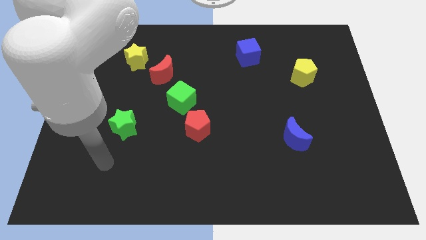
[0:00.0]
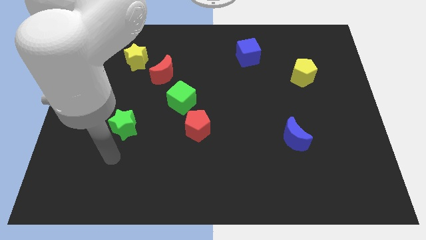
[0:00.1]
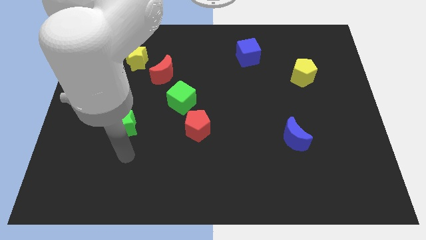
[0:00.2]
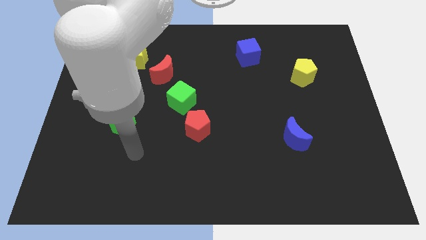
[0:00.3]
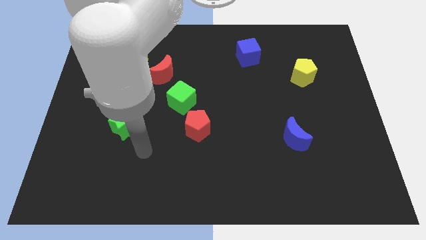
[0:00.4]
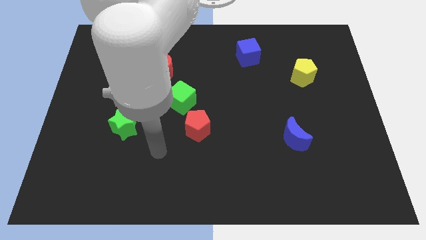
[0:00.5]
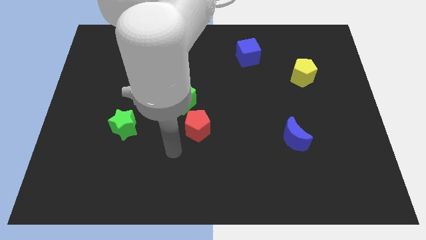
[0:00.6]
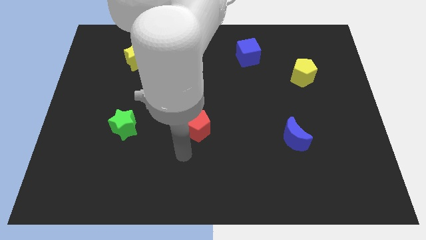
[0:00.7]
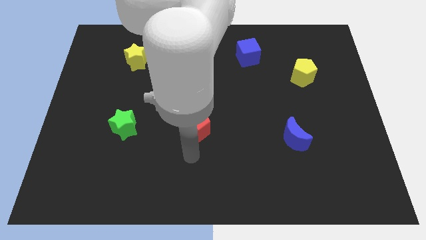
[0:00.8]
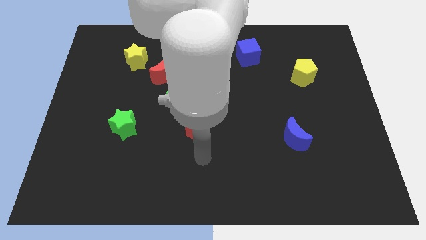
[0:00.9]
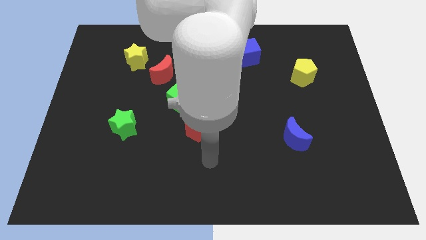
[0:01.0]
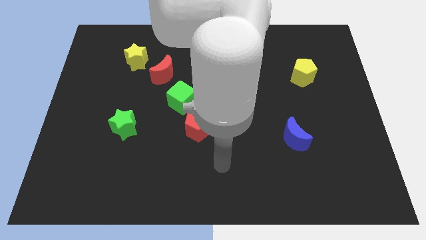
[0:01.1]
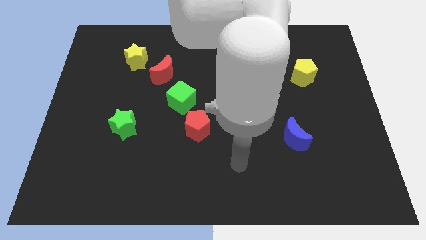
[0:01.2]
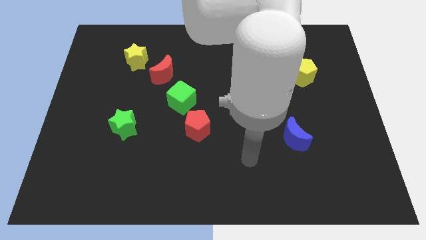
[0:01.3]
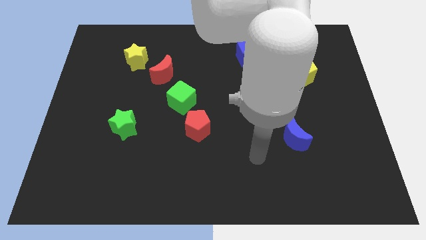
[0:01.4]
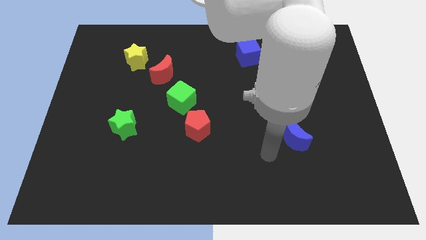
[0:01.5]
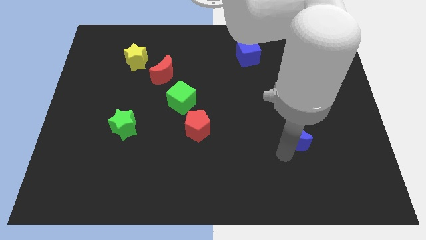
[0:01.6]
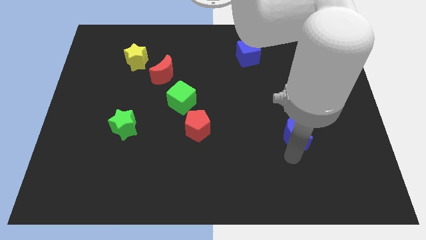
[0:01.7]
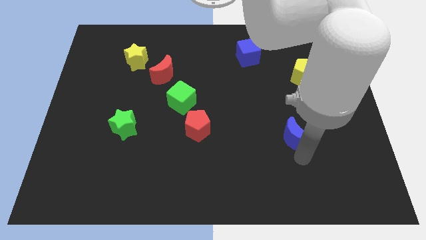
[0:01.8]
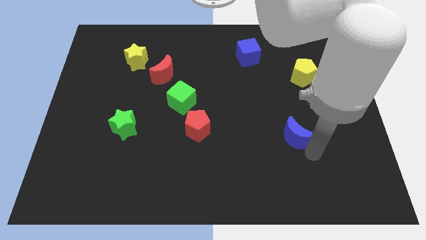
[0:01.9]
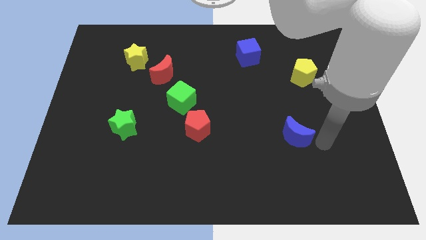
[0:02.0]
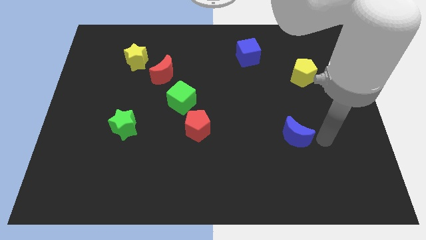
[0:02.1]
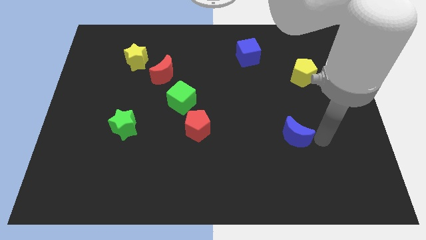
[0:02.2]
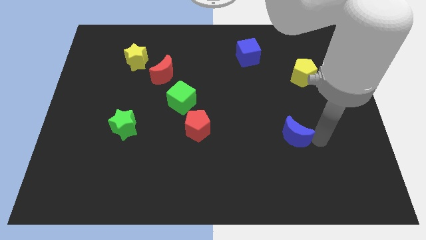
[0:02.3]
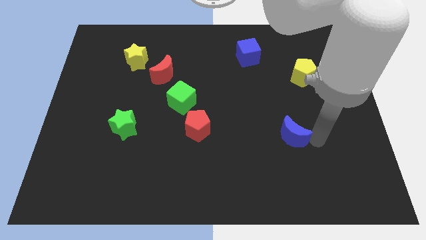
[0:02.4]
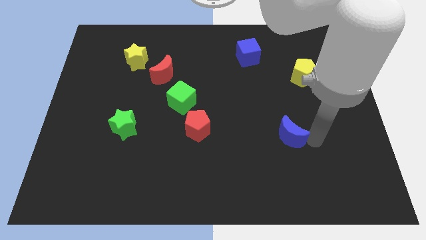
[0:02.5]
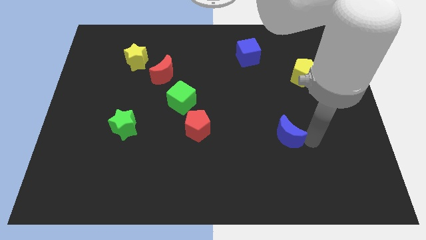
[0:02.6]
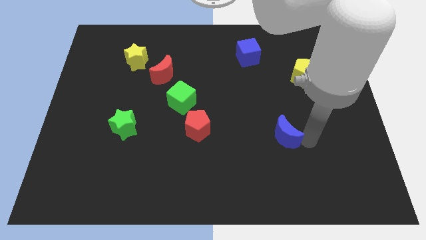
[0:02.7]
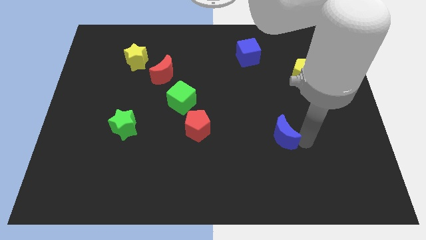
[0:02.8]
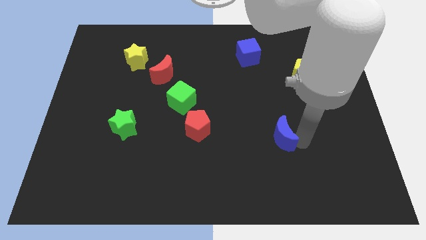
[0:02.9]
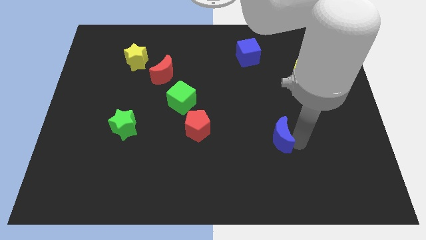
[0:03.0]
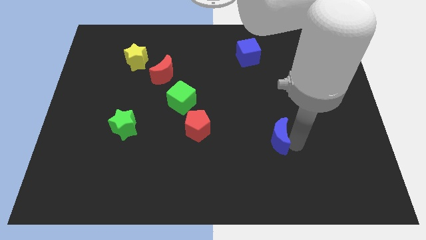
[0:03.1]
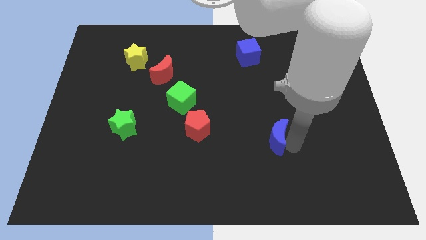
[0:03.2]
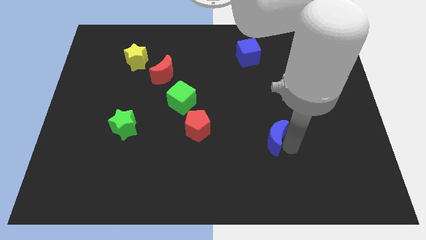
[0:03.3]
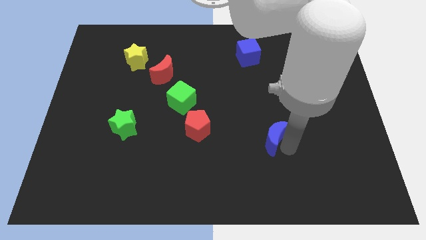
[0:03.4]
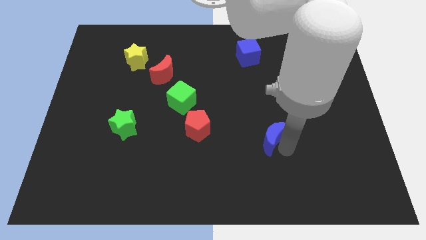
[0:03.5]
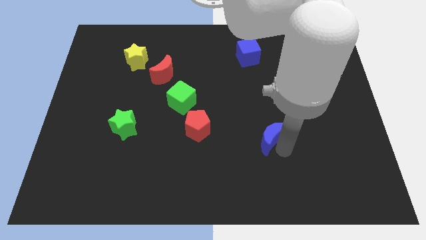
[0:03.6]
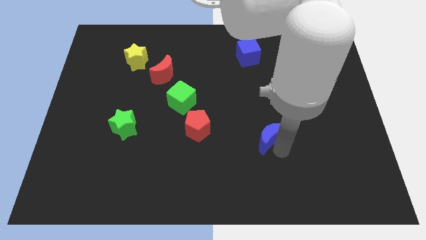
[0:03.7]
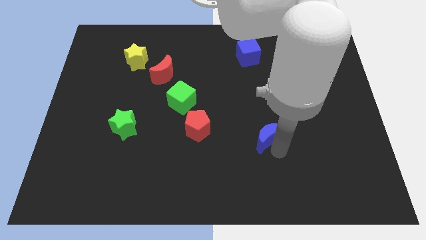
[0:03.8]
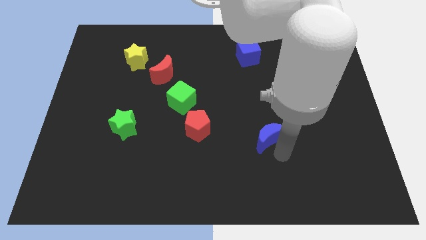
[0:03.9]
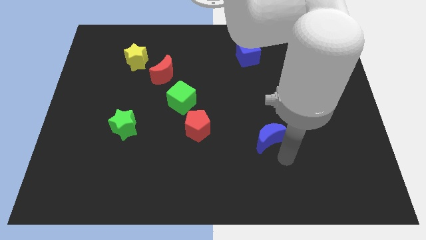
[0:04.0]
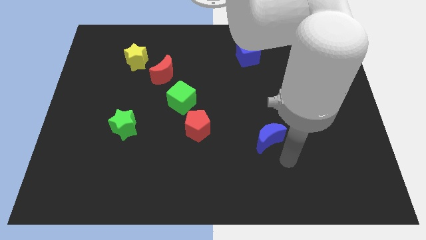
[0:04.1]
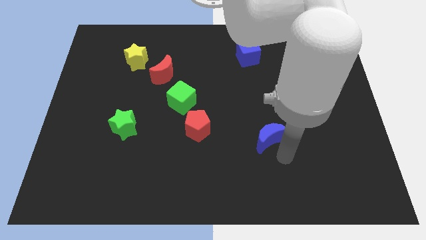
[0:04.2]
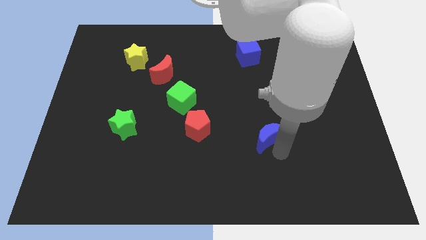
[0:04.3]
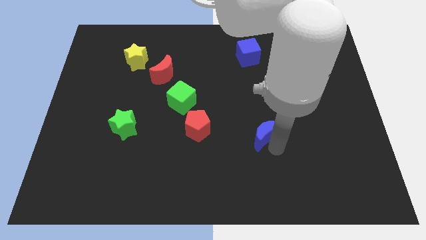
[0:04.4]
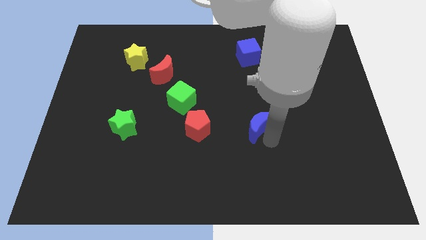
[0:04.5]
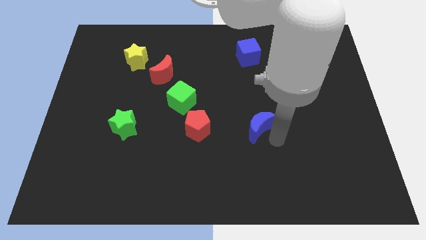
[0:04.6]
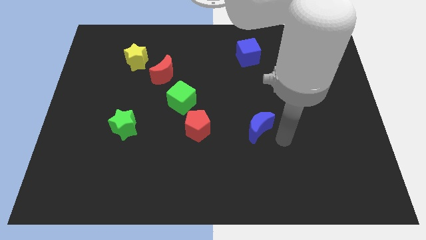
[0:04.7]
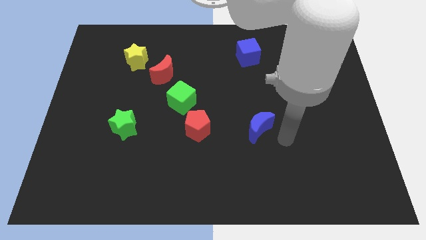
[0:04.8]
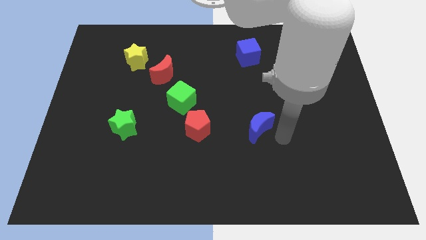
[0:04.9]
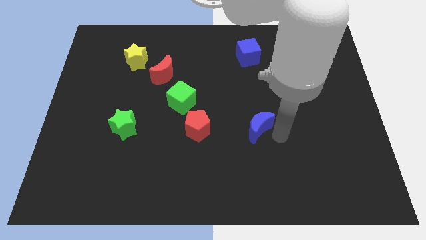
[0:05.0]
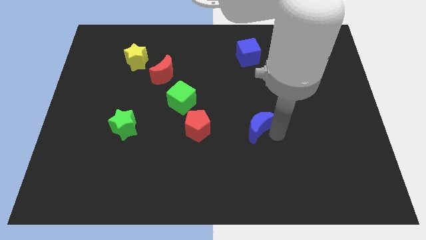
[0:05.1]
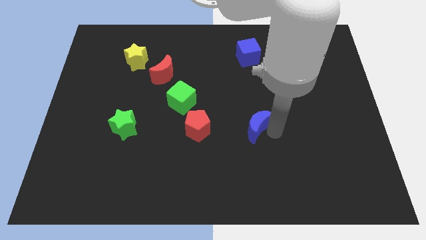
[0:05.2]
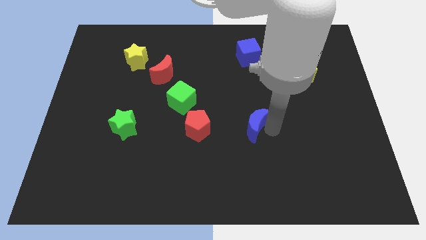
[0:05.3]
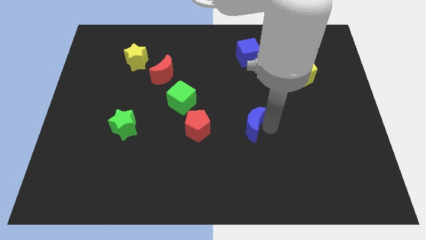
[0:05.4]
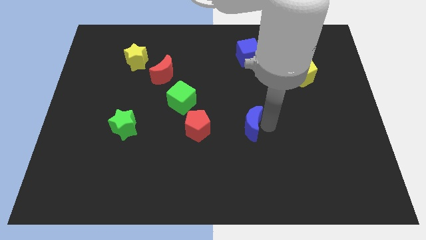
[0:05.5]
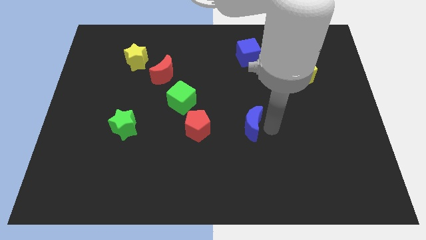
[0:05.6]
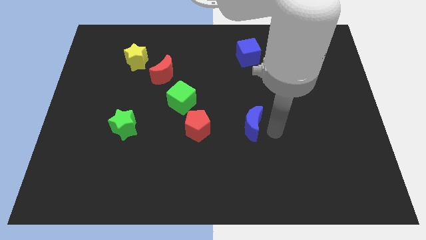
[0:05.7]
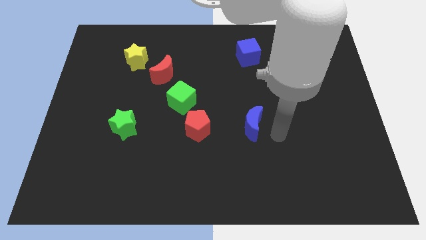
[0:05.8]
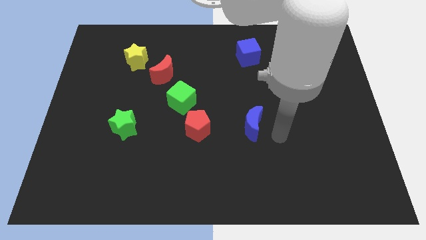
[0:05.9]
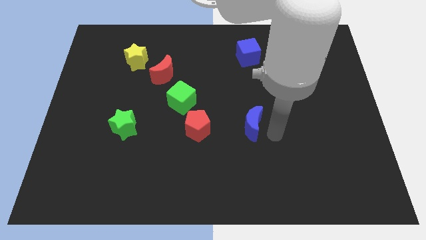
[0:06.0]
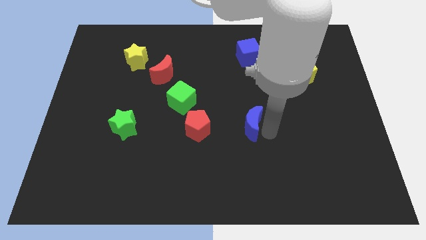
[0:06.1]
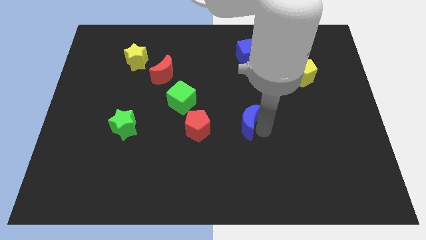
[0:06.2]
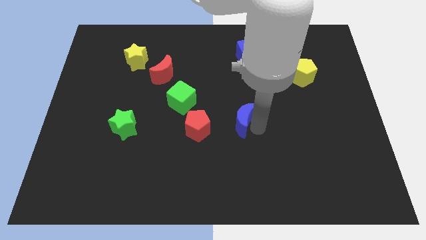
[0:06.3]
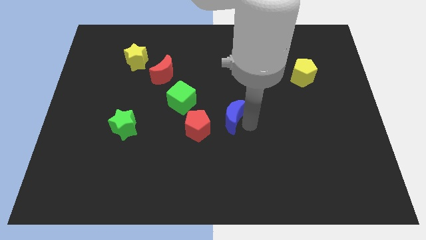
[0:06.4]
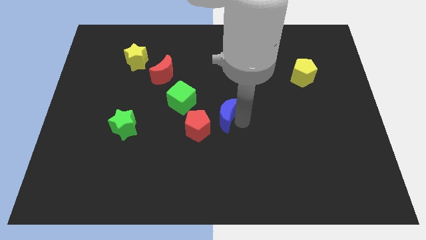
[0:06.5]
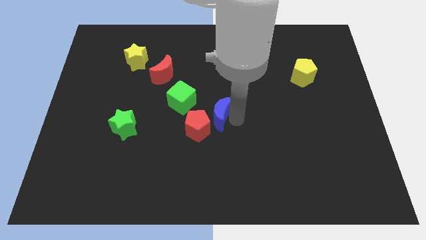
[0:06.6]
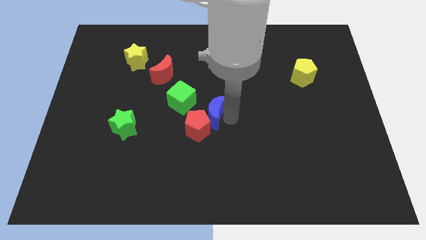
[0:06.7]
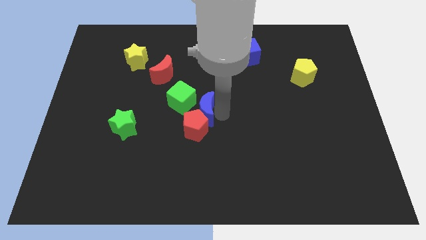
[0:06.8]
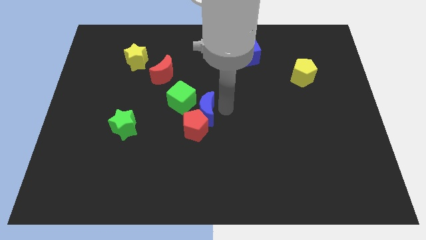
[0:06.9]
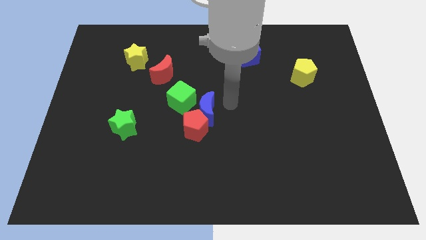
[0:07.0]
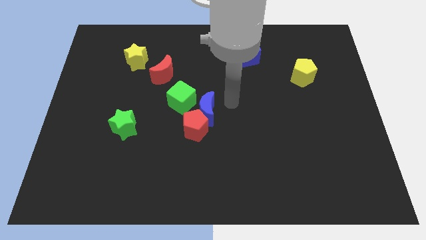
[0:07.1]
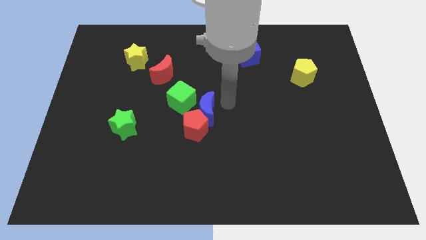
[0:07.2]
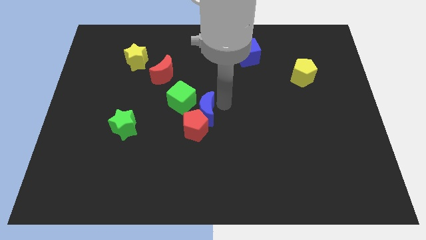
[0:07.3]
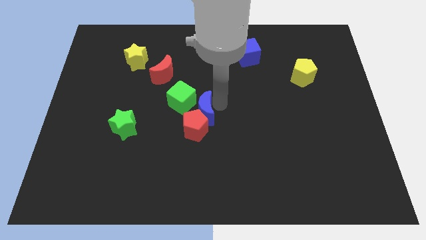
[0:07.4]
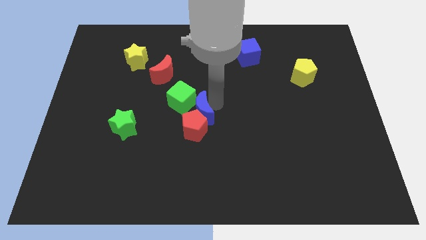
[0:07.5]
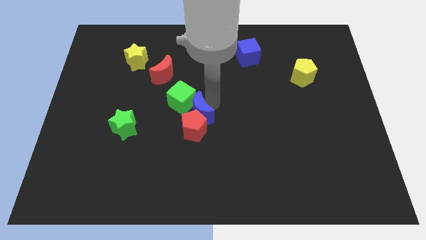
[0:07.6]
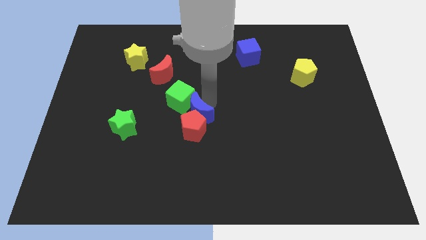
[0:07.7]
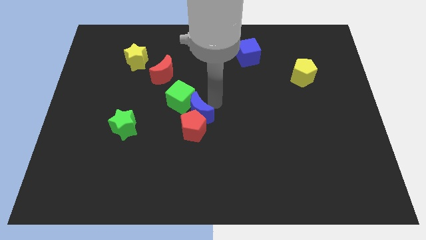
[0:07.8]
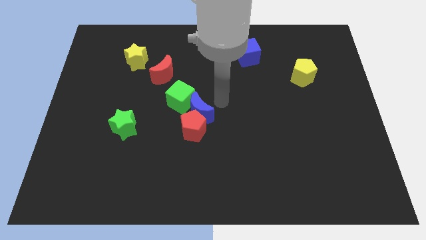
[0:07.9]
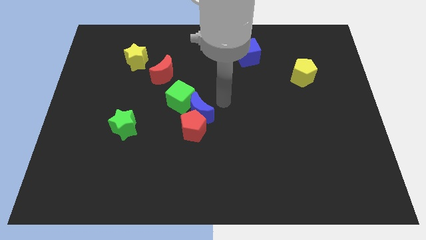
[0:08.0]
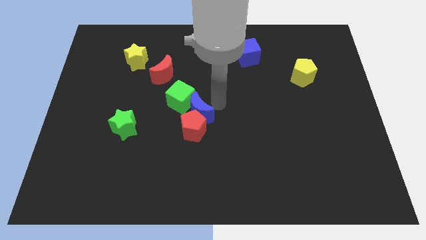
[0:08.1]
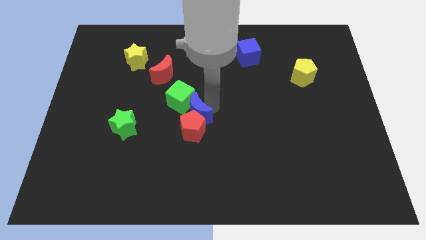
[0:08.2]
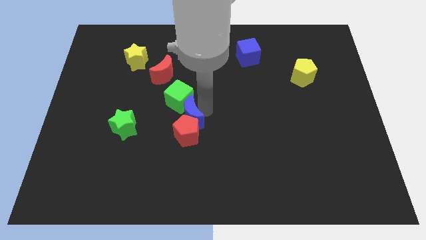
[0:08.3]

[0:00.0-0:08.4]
move the blue moon to the right side of the green star
